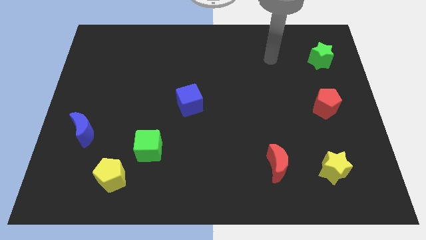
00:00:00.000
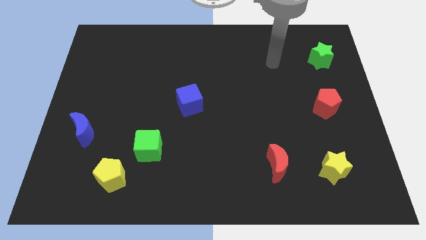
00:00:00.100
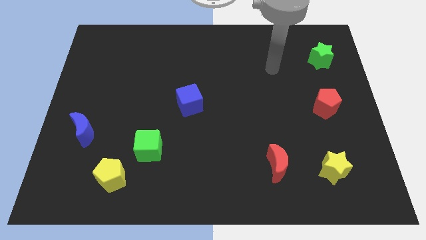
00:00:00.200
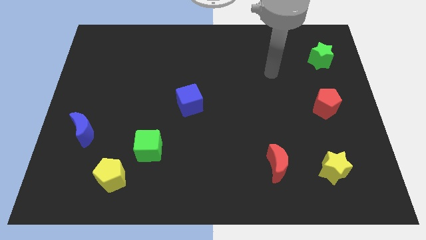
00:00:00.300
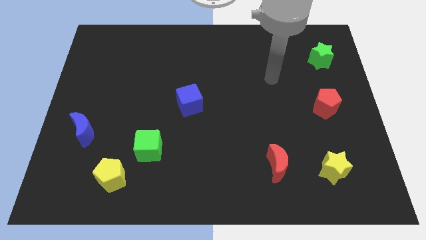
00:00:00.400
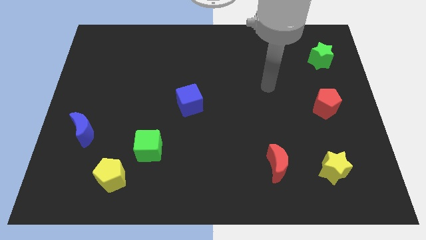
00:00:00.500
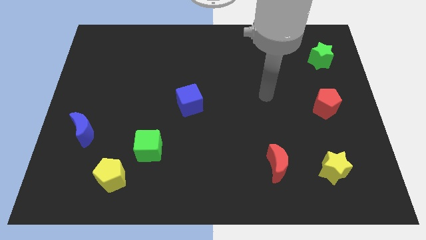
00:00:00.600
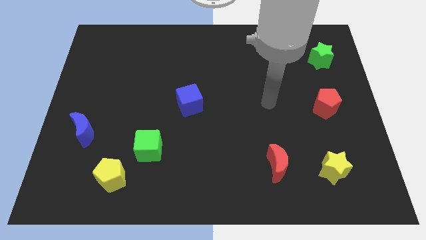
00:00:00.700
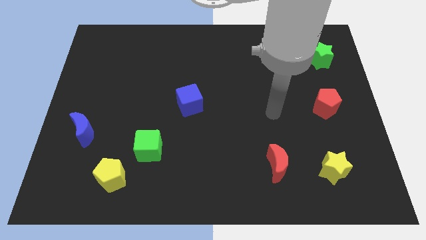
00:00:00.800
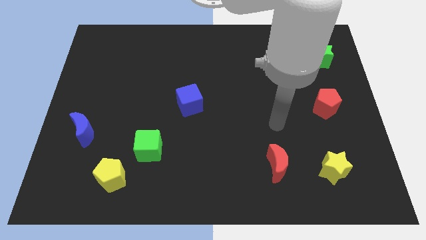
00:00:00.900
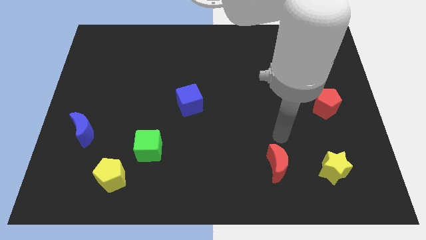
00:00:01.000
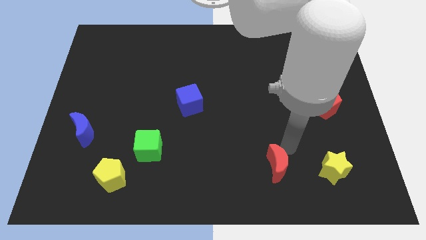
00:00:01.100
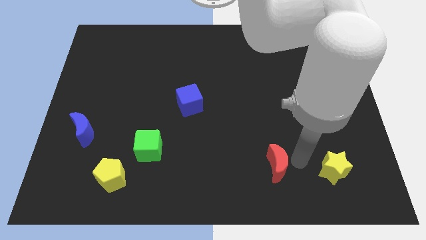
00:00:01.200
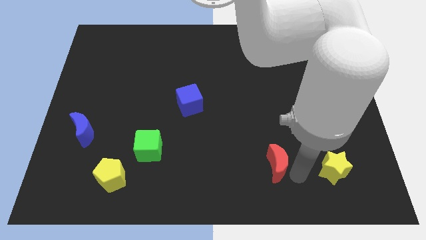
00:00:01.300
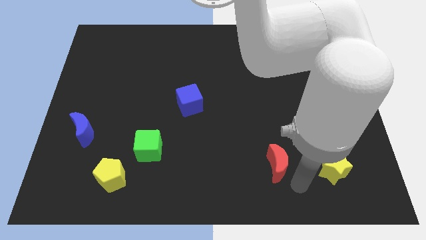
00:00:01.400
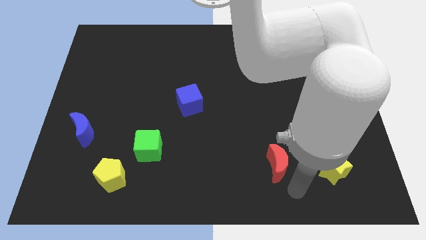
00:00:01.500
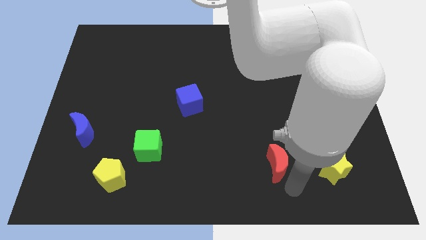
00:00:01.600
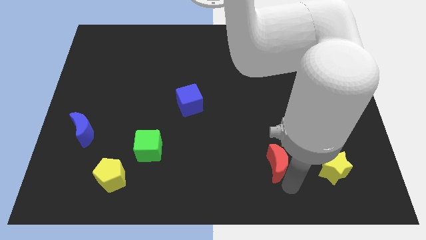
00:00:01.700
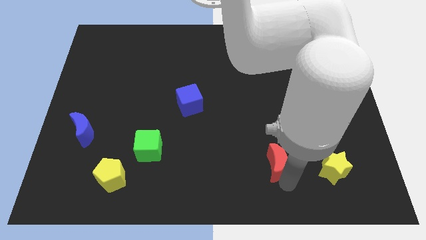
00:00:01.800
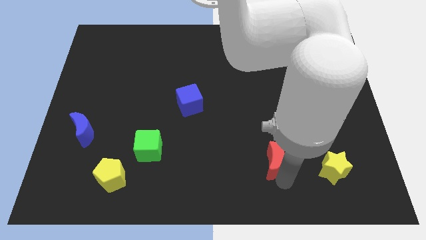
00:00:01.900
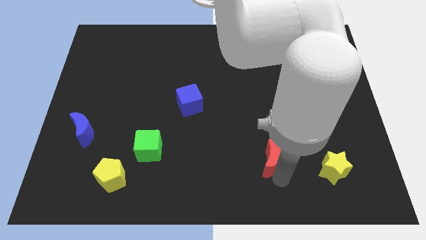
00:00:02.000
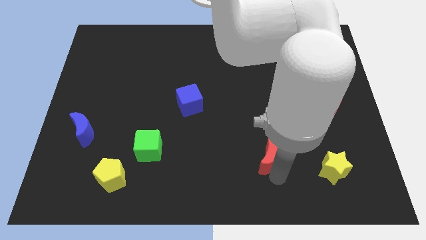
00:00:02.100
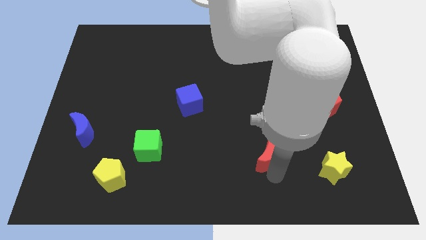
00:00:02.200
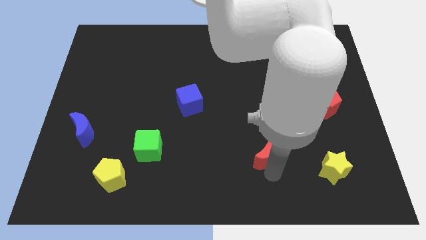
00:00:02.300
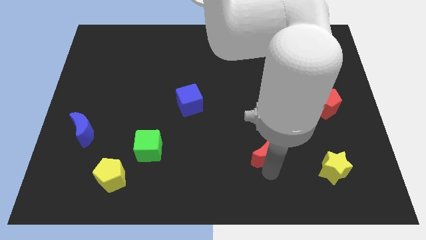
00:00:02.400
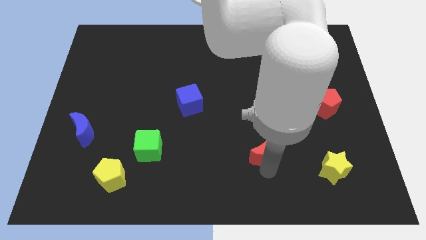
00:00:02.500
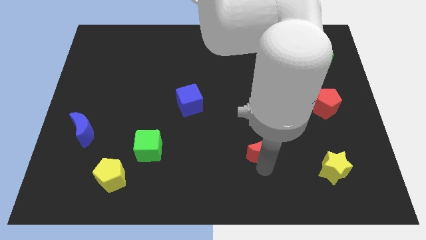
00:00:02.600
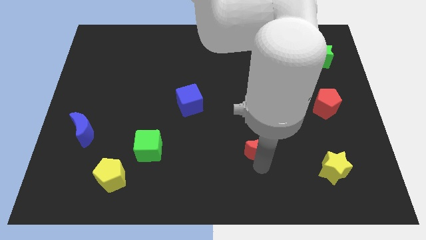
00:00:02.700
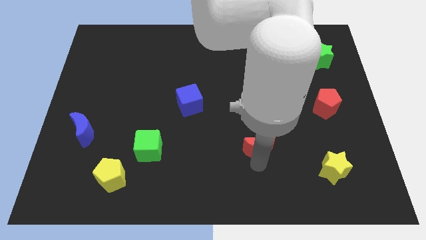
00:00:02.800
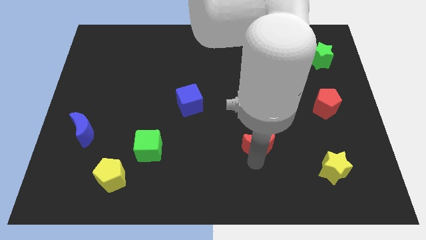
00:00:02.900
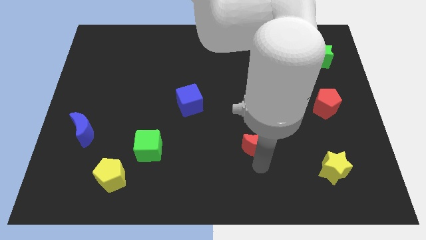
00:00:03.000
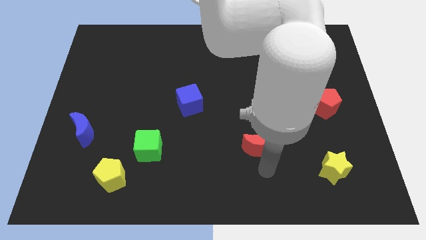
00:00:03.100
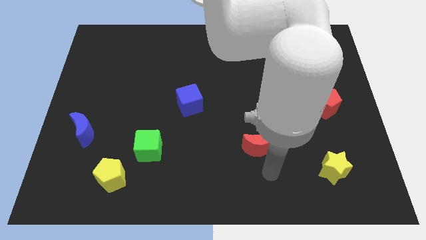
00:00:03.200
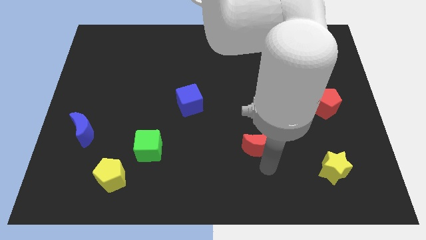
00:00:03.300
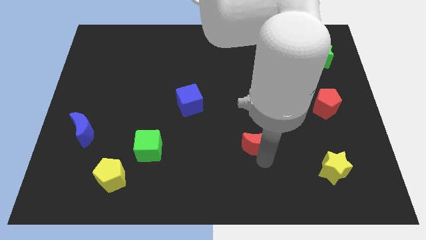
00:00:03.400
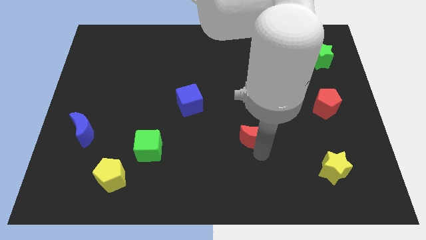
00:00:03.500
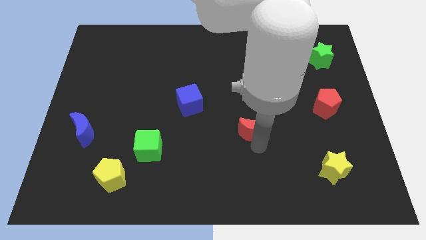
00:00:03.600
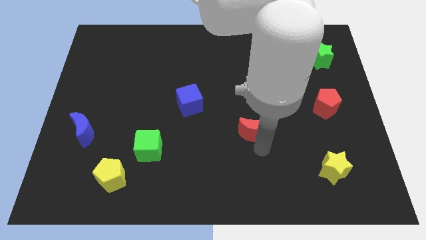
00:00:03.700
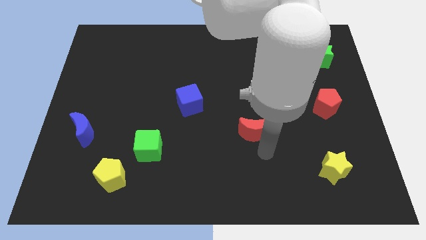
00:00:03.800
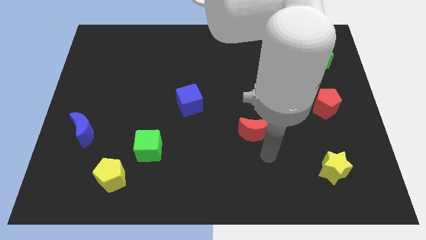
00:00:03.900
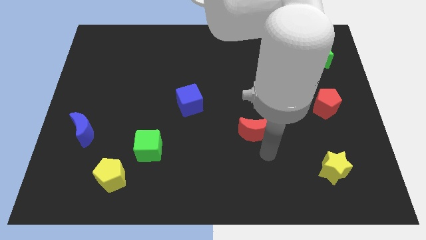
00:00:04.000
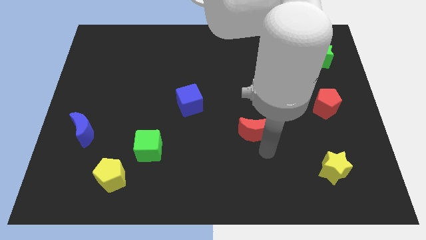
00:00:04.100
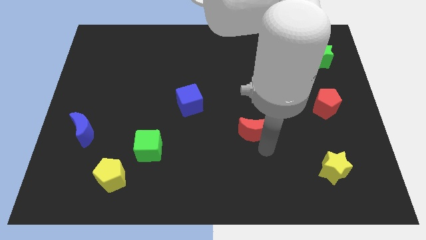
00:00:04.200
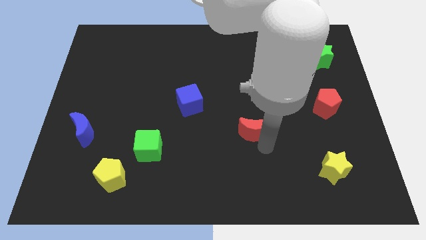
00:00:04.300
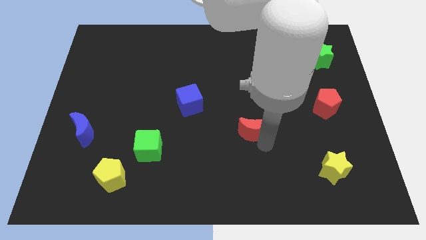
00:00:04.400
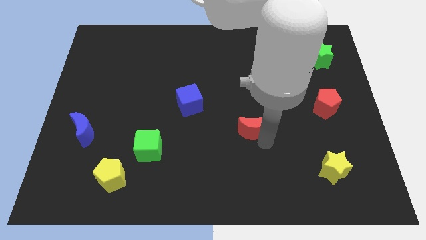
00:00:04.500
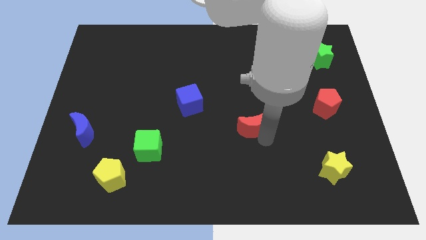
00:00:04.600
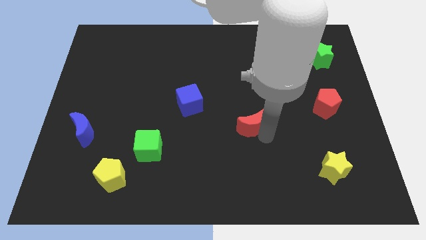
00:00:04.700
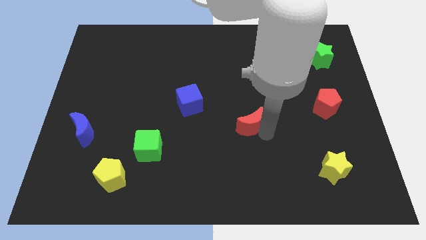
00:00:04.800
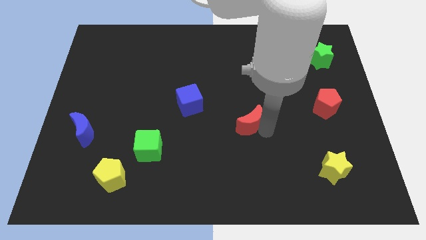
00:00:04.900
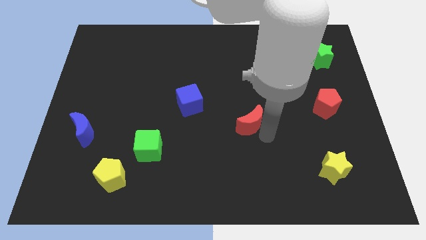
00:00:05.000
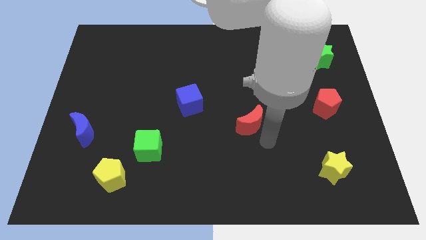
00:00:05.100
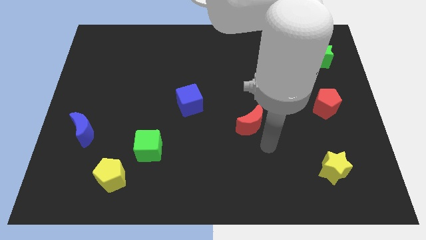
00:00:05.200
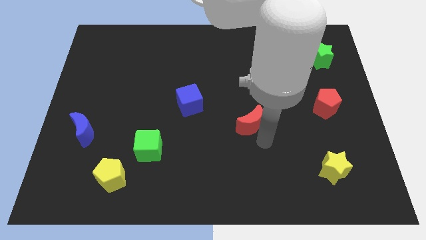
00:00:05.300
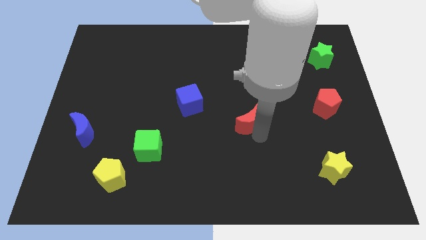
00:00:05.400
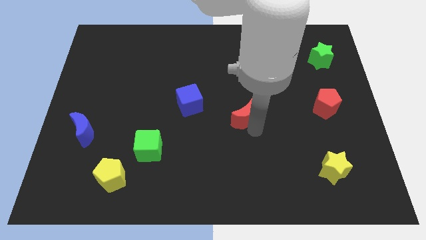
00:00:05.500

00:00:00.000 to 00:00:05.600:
put the red moon right of the blue cube

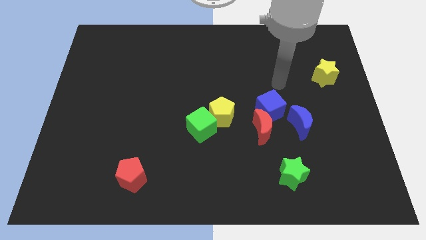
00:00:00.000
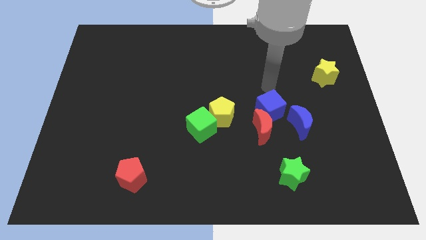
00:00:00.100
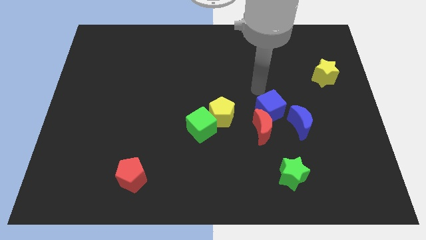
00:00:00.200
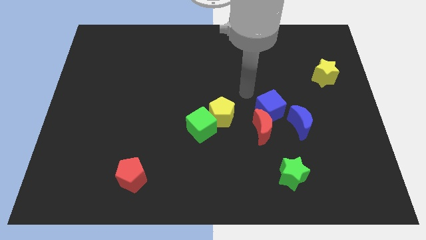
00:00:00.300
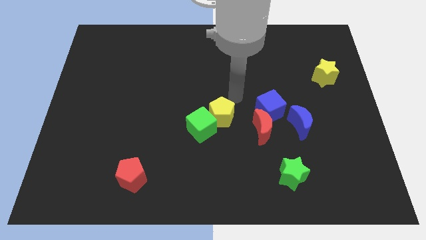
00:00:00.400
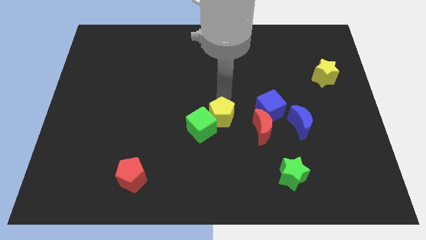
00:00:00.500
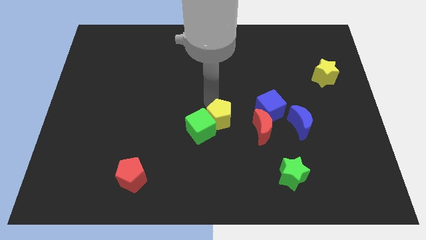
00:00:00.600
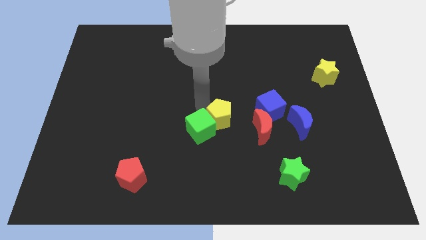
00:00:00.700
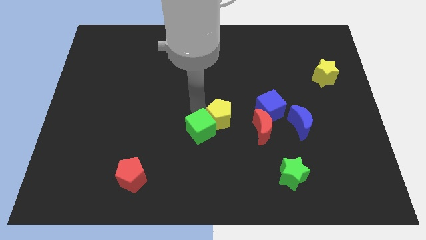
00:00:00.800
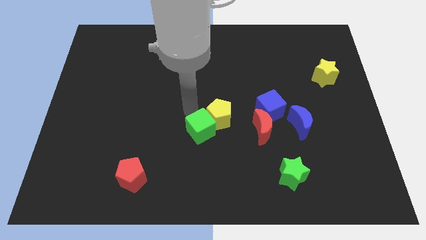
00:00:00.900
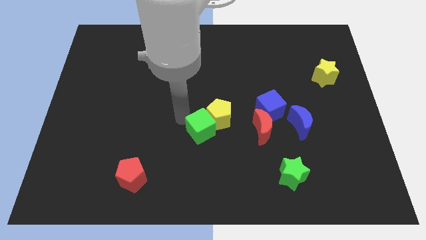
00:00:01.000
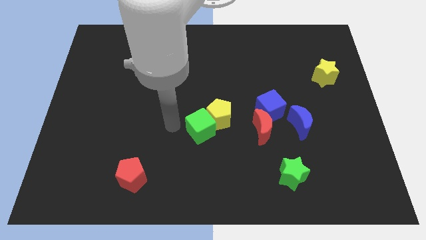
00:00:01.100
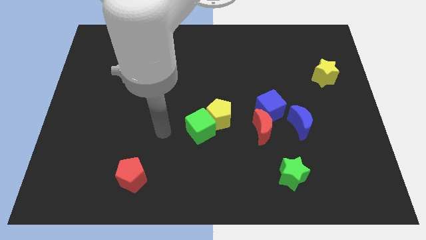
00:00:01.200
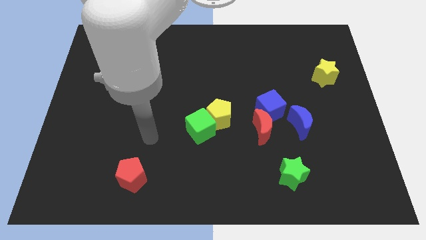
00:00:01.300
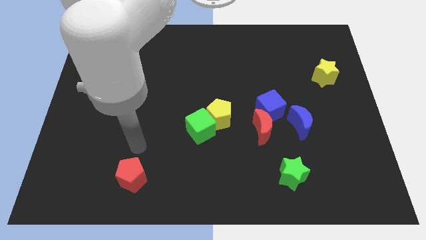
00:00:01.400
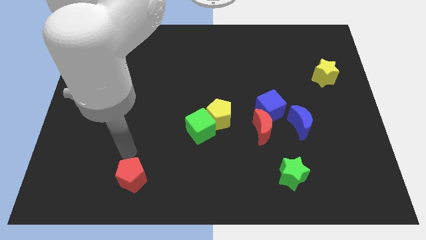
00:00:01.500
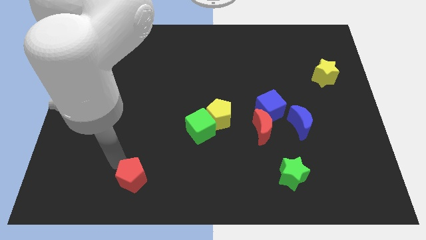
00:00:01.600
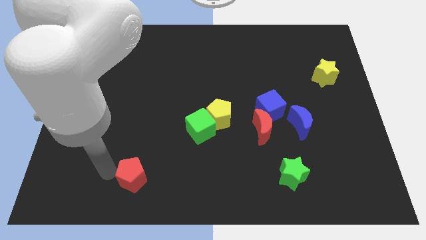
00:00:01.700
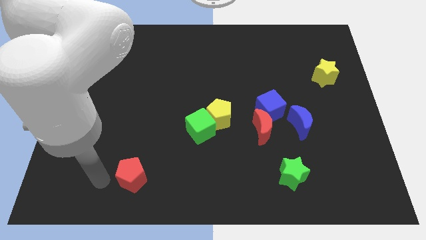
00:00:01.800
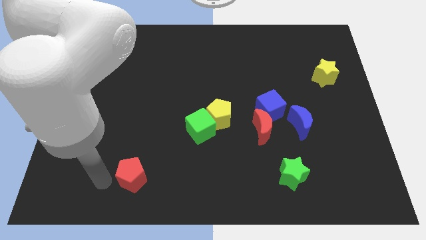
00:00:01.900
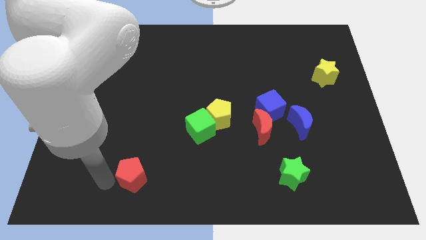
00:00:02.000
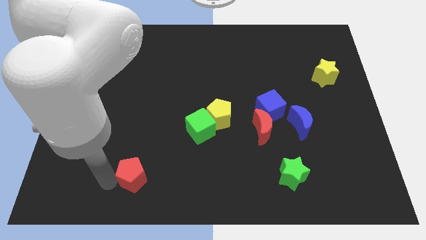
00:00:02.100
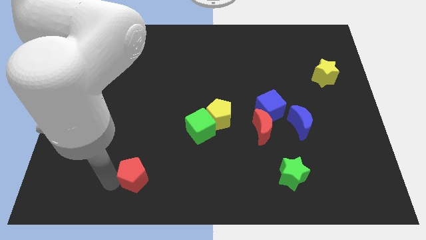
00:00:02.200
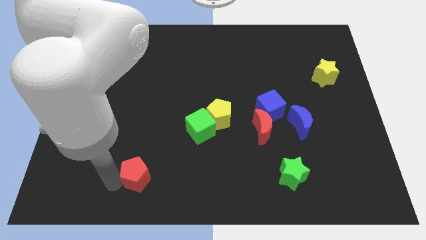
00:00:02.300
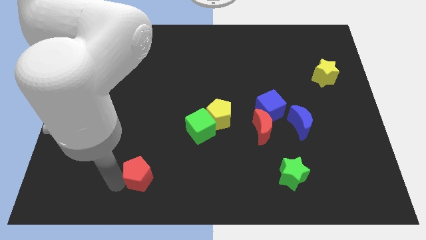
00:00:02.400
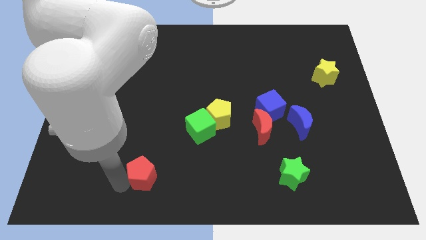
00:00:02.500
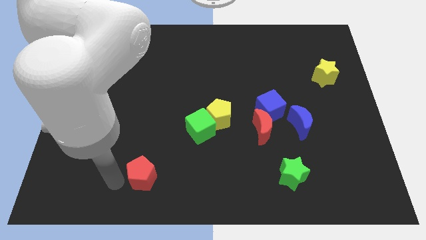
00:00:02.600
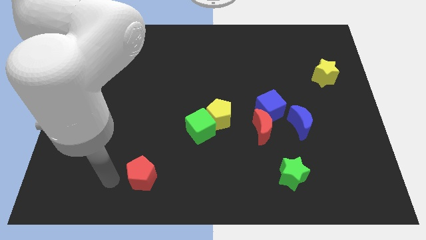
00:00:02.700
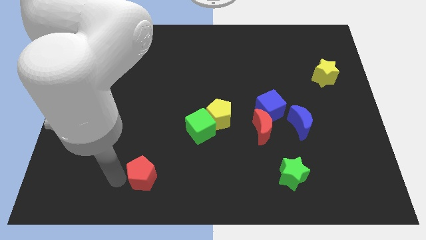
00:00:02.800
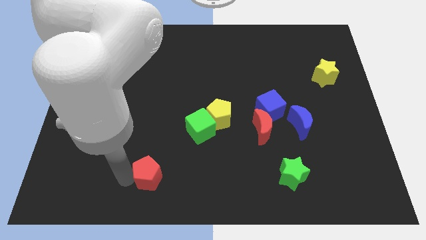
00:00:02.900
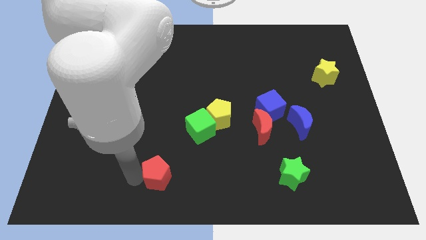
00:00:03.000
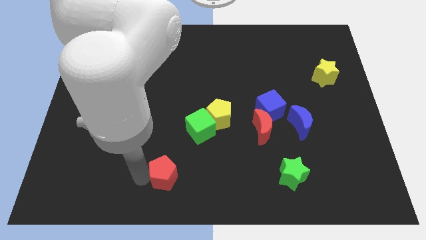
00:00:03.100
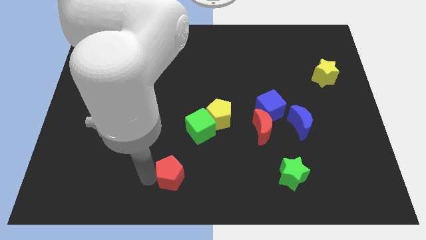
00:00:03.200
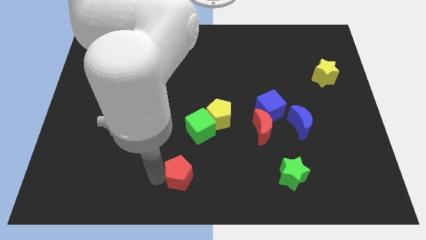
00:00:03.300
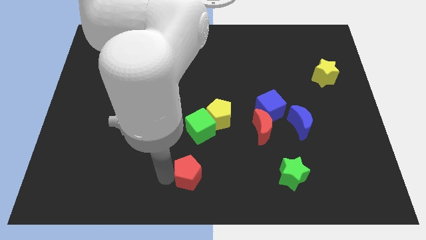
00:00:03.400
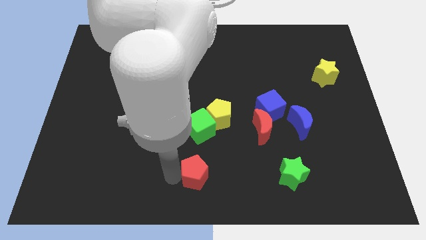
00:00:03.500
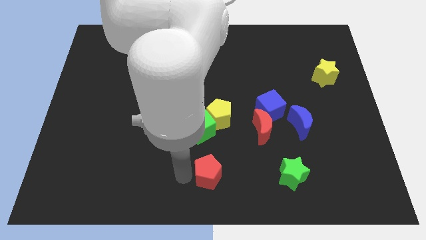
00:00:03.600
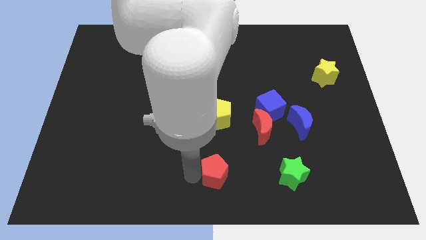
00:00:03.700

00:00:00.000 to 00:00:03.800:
put the red pentagon to the left of the green star
